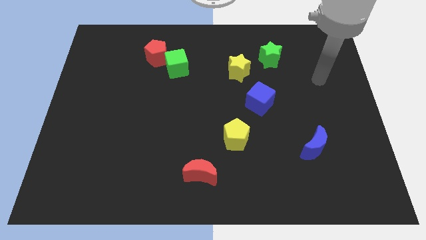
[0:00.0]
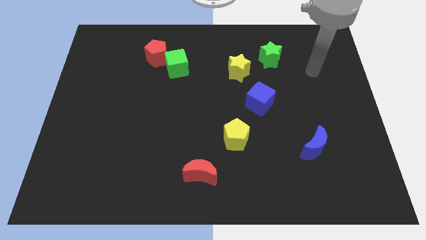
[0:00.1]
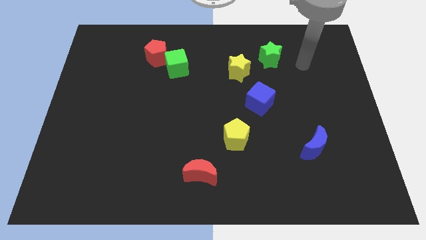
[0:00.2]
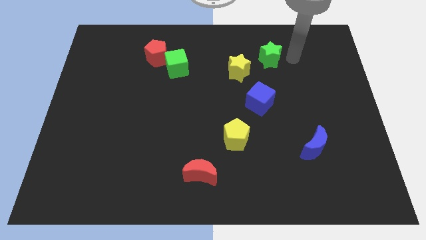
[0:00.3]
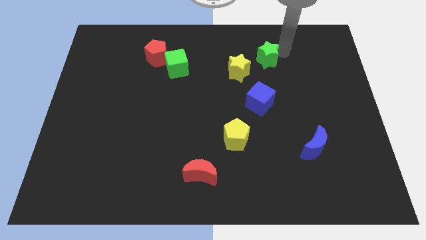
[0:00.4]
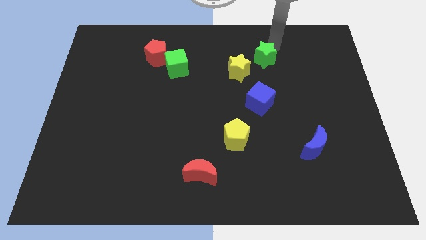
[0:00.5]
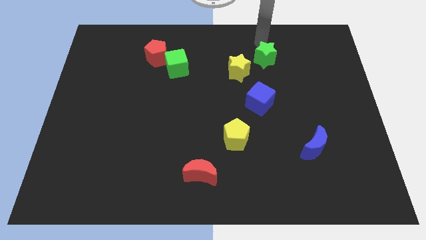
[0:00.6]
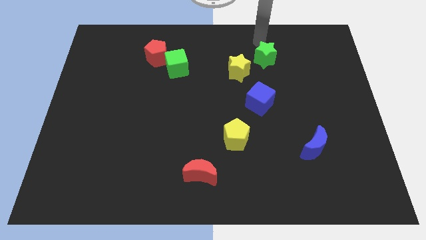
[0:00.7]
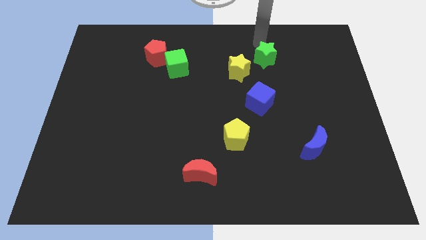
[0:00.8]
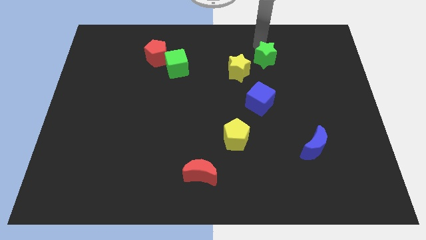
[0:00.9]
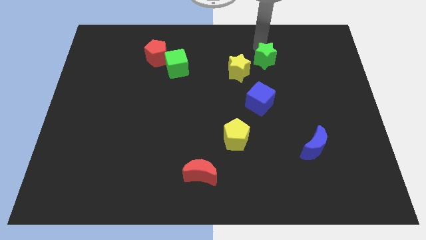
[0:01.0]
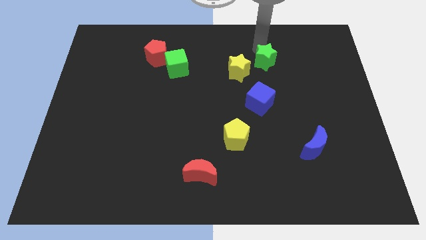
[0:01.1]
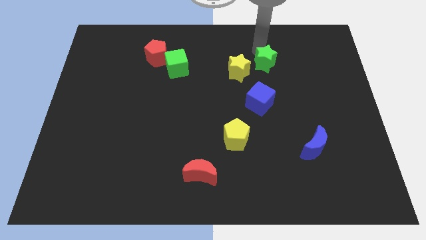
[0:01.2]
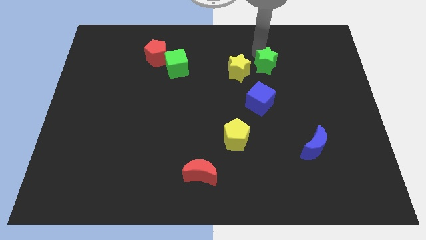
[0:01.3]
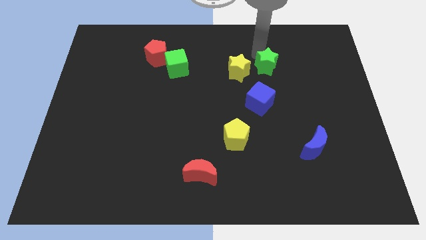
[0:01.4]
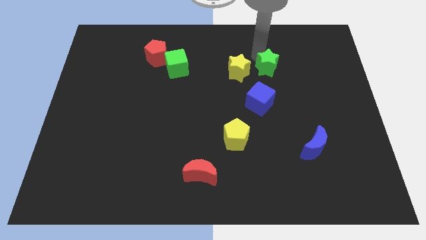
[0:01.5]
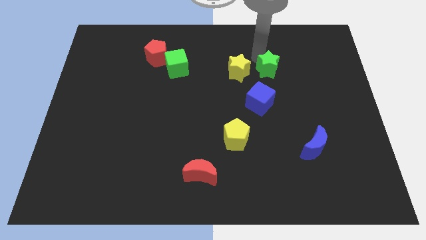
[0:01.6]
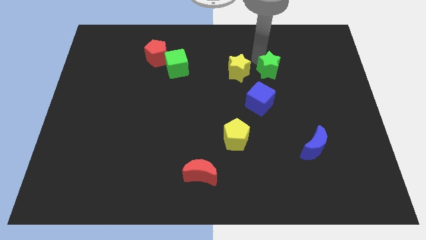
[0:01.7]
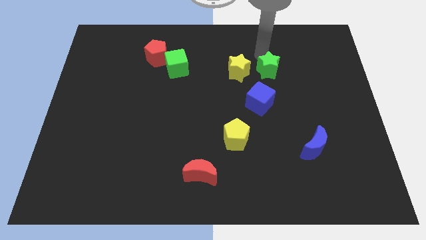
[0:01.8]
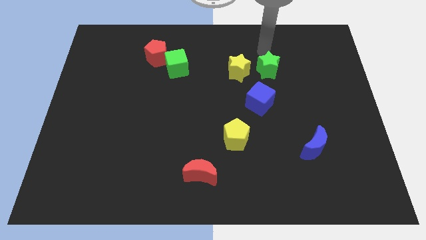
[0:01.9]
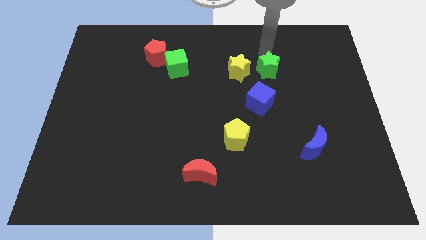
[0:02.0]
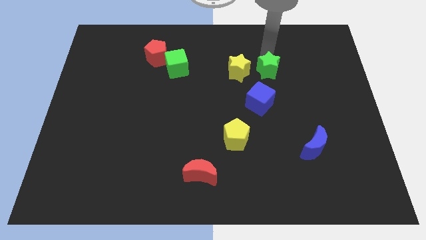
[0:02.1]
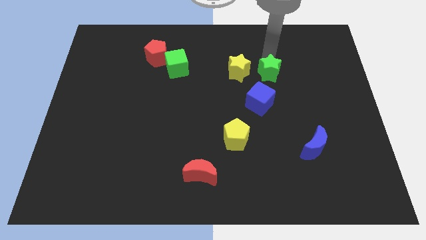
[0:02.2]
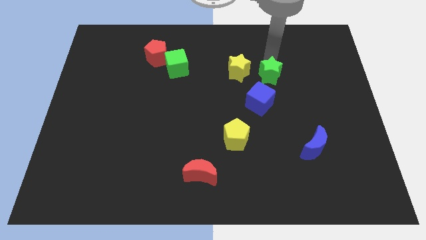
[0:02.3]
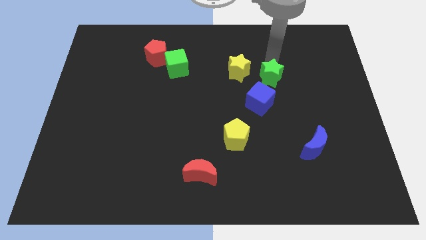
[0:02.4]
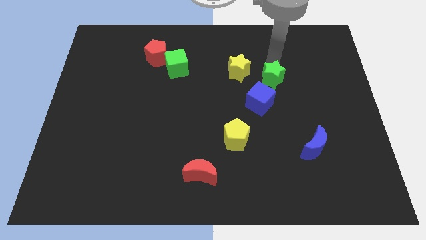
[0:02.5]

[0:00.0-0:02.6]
slightly move the green star down

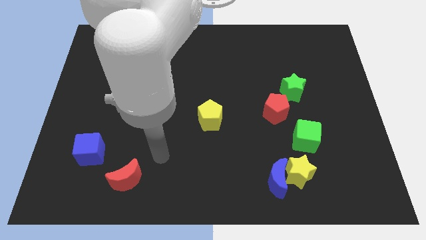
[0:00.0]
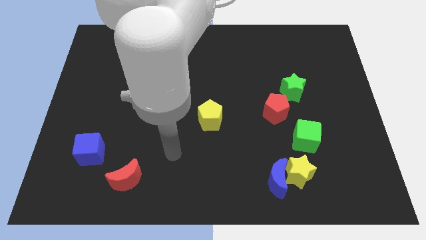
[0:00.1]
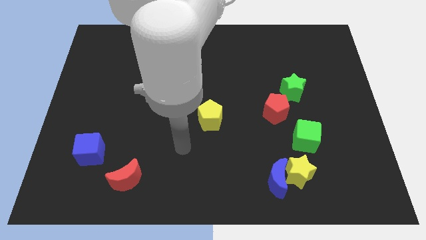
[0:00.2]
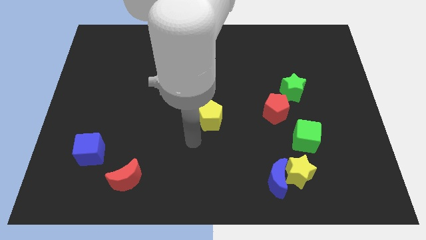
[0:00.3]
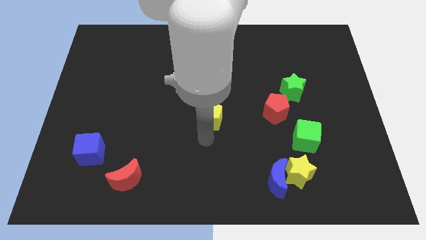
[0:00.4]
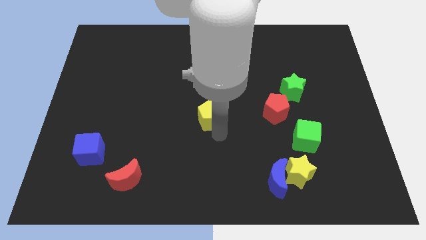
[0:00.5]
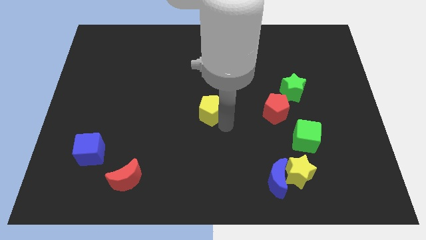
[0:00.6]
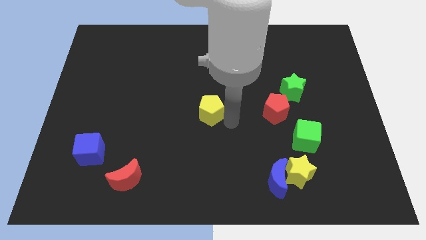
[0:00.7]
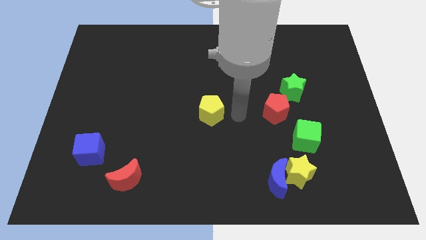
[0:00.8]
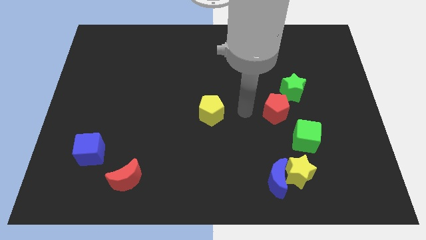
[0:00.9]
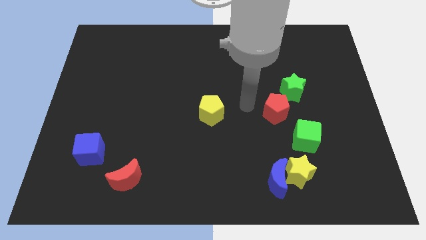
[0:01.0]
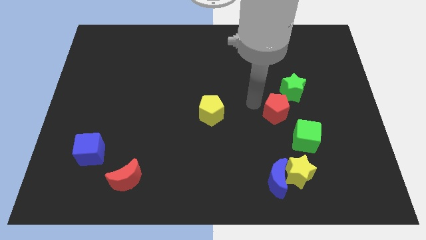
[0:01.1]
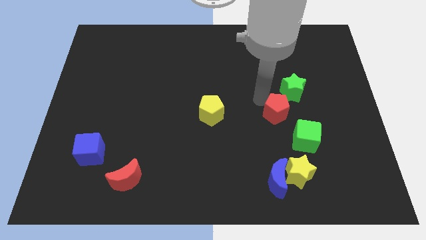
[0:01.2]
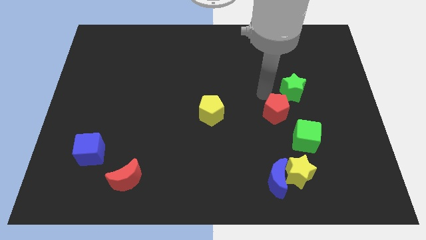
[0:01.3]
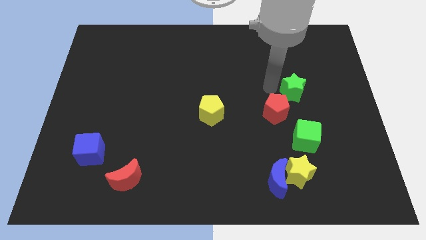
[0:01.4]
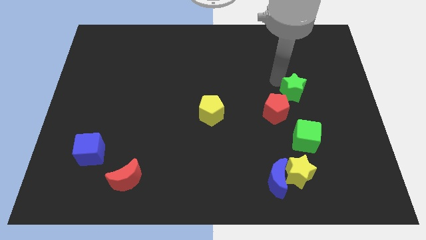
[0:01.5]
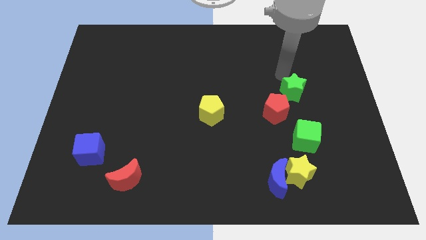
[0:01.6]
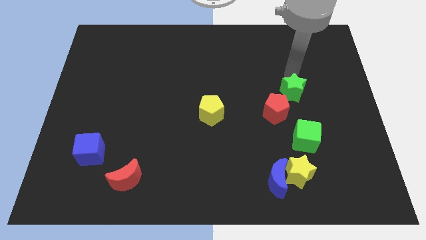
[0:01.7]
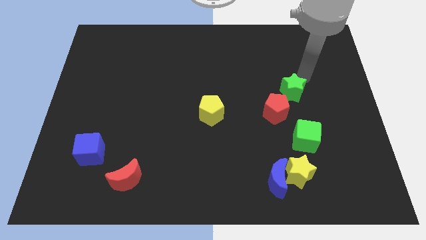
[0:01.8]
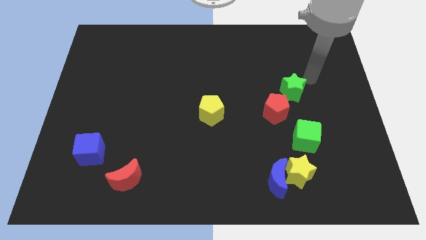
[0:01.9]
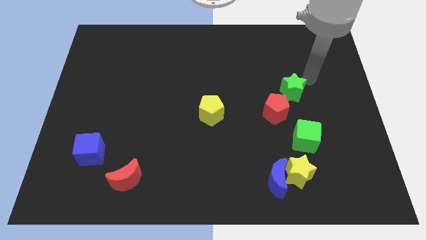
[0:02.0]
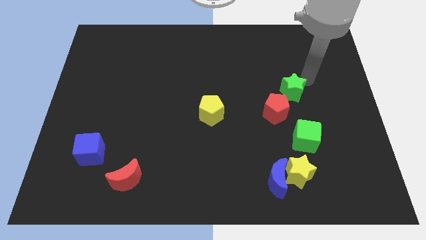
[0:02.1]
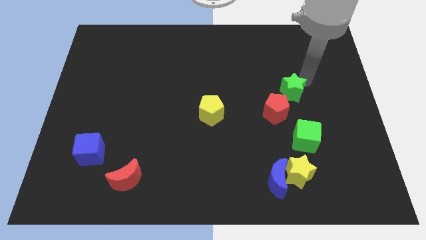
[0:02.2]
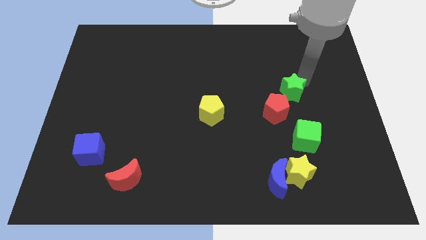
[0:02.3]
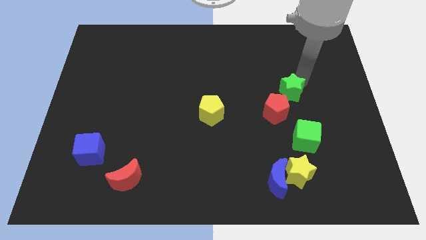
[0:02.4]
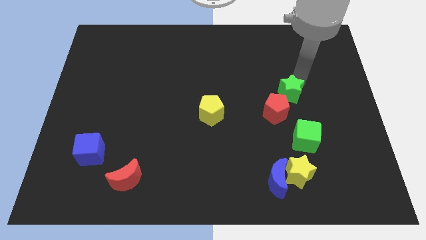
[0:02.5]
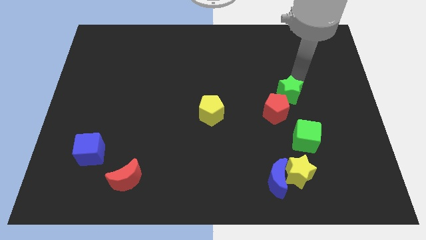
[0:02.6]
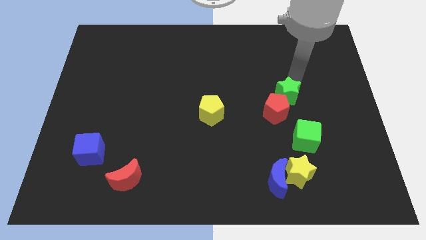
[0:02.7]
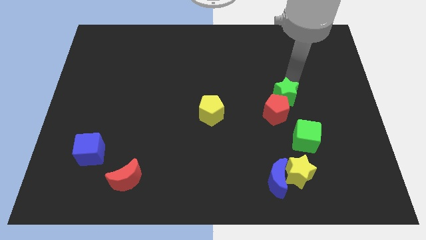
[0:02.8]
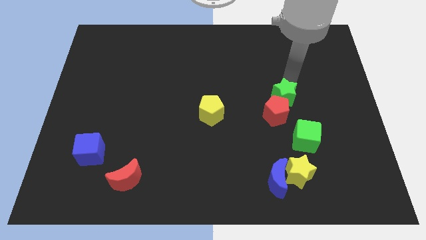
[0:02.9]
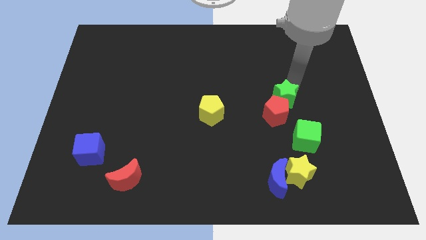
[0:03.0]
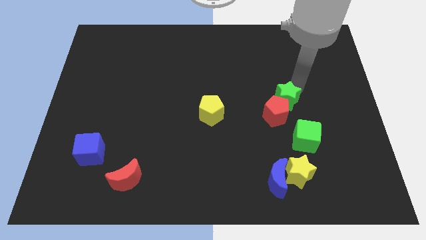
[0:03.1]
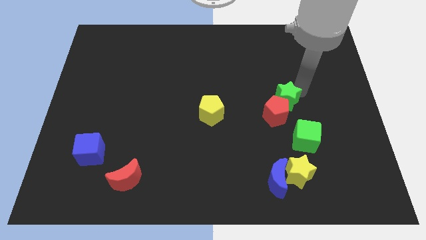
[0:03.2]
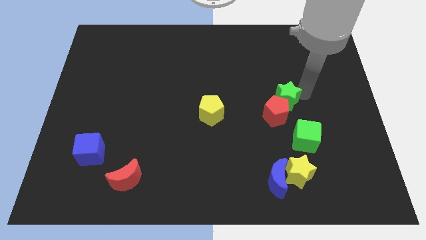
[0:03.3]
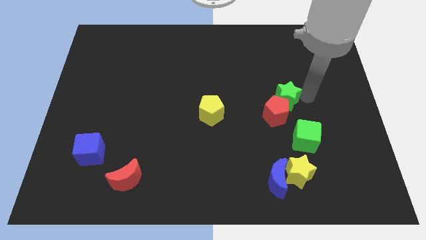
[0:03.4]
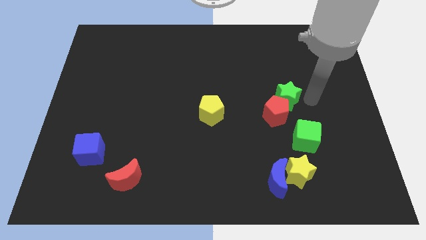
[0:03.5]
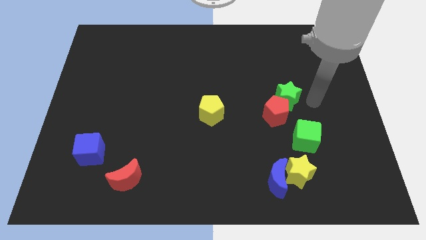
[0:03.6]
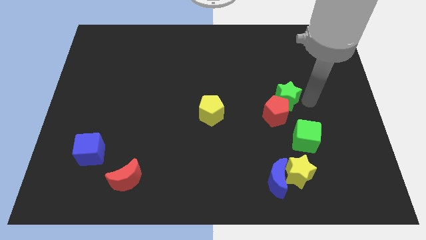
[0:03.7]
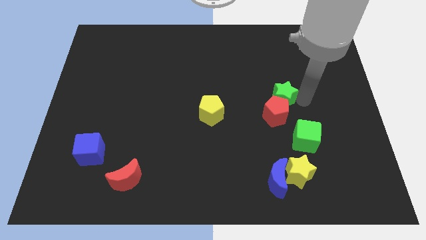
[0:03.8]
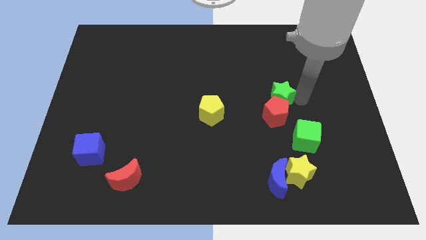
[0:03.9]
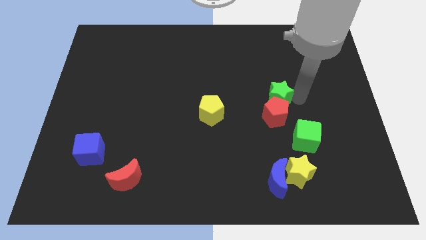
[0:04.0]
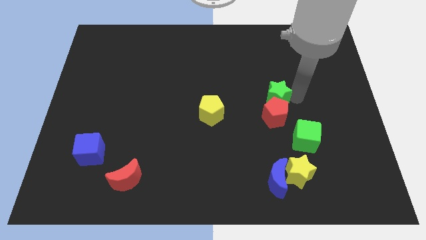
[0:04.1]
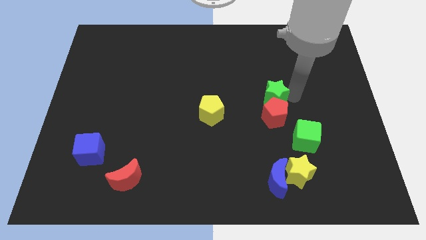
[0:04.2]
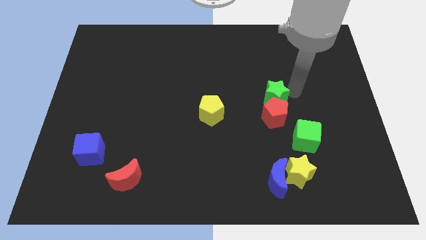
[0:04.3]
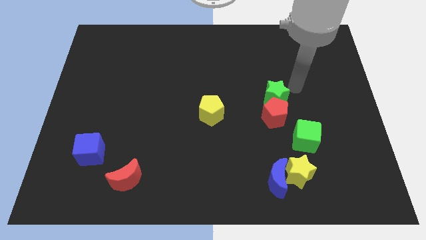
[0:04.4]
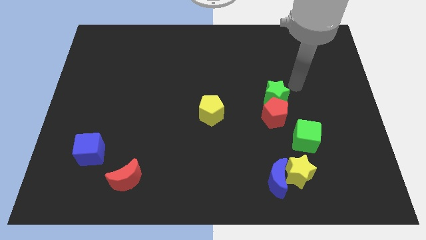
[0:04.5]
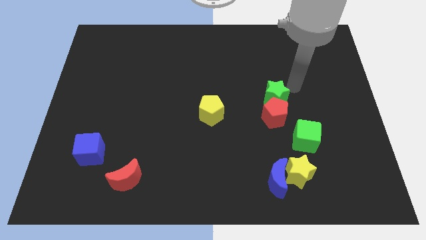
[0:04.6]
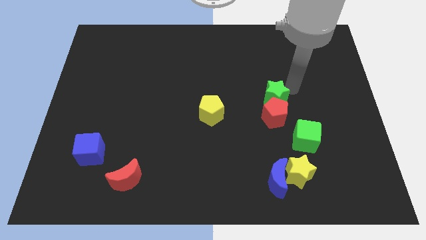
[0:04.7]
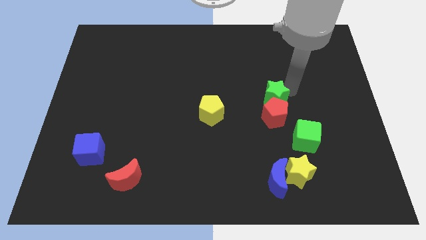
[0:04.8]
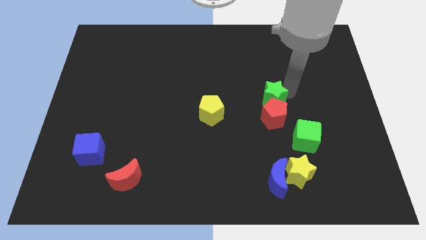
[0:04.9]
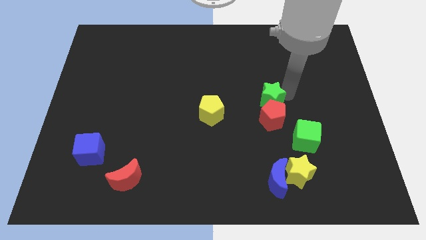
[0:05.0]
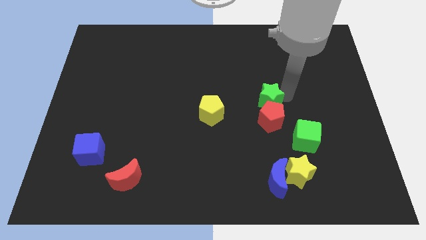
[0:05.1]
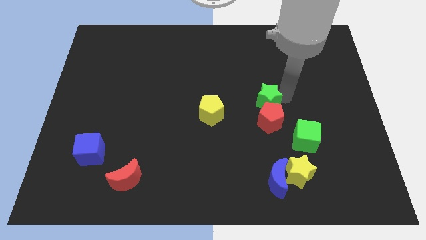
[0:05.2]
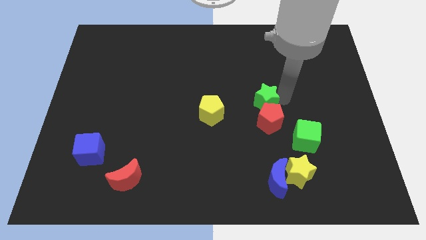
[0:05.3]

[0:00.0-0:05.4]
slightly push the green star downwards and left
